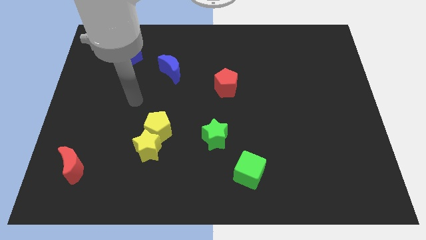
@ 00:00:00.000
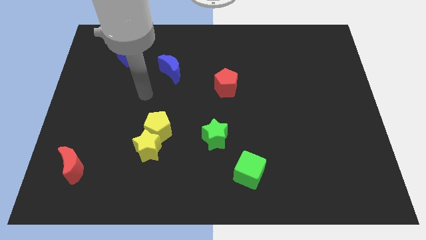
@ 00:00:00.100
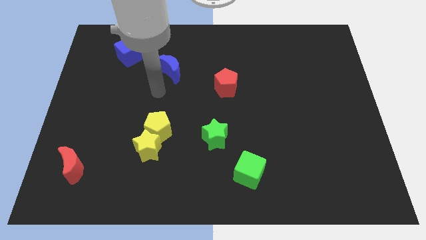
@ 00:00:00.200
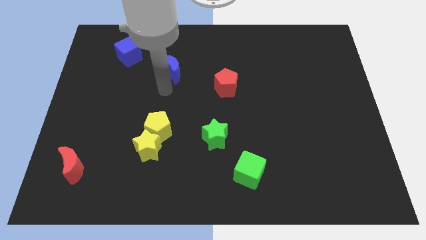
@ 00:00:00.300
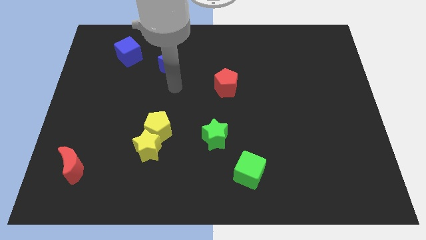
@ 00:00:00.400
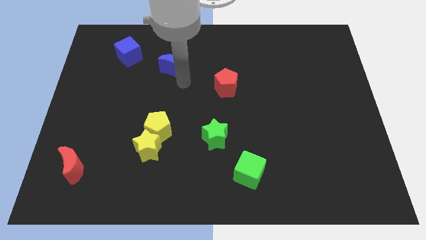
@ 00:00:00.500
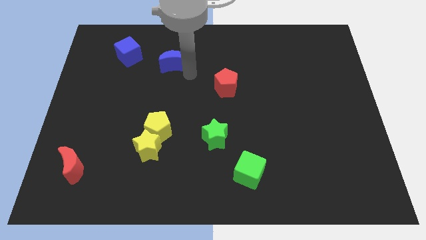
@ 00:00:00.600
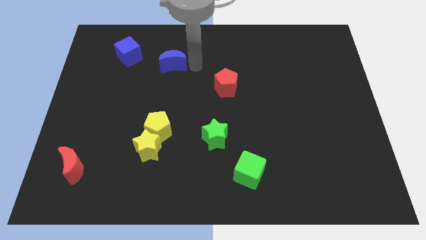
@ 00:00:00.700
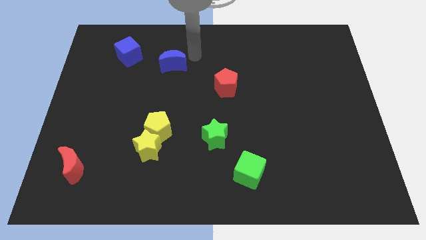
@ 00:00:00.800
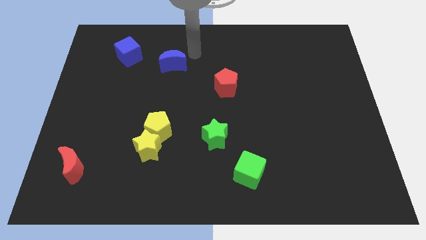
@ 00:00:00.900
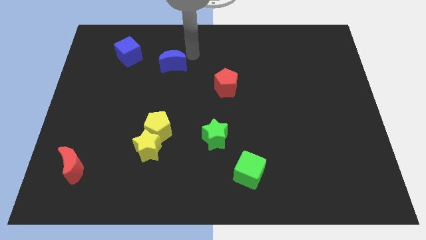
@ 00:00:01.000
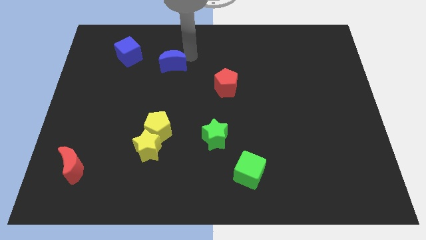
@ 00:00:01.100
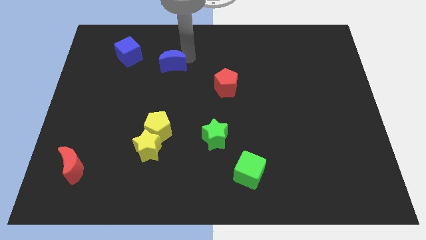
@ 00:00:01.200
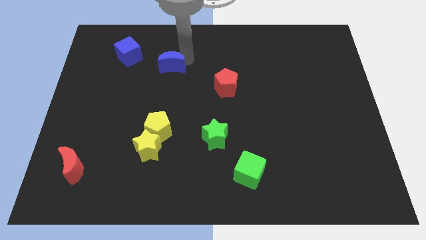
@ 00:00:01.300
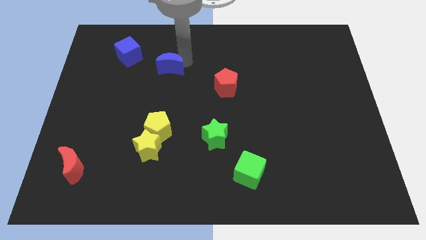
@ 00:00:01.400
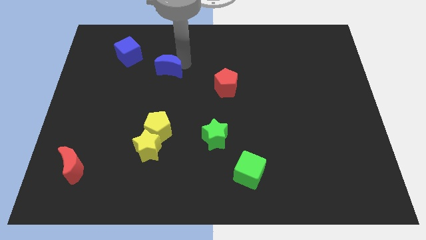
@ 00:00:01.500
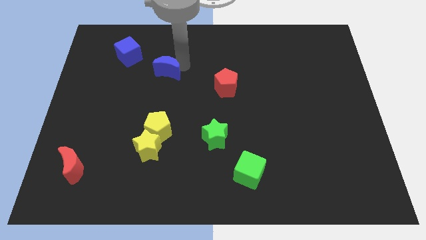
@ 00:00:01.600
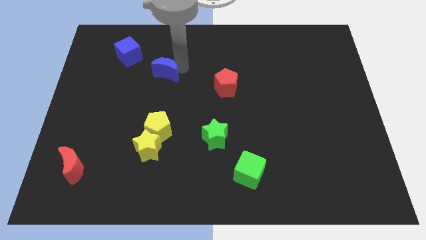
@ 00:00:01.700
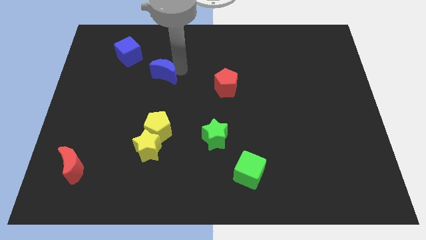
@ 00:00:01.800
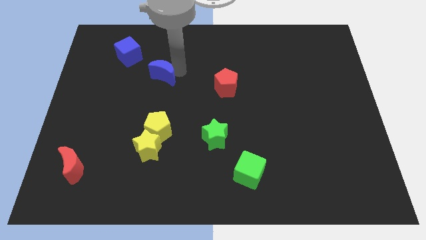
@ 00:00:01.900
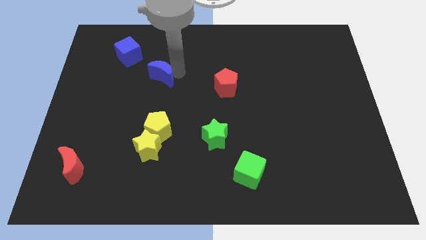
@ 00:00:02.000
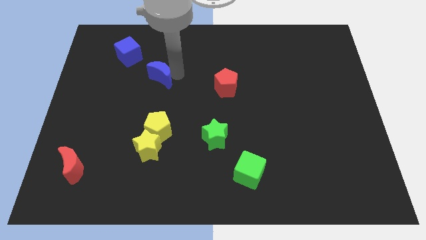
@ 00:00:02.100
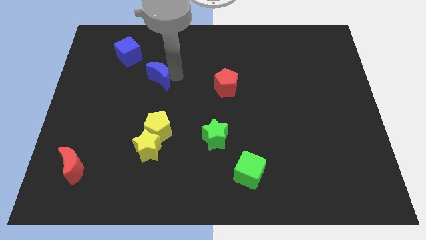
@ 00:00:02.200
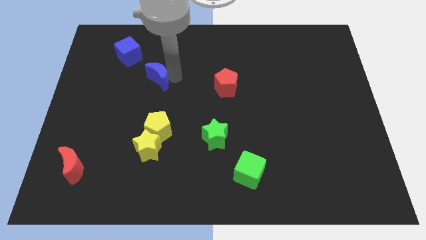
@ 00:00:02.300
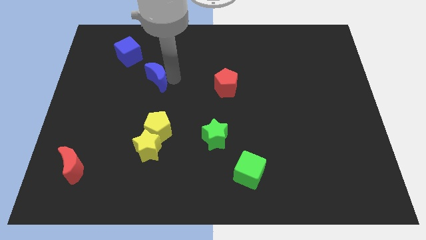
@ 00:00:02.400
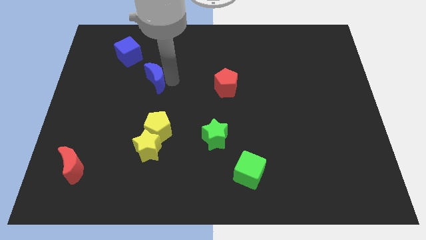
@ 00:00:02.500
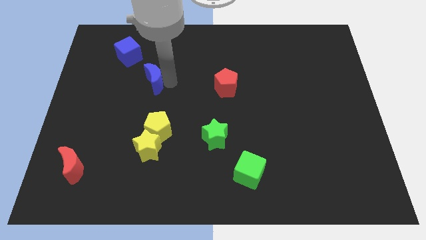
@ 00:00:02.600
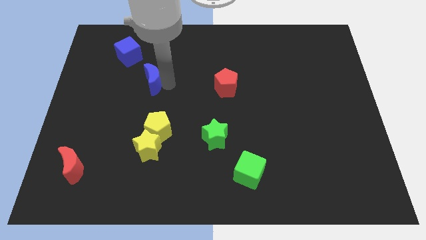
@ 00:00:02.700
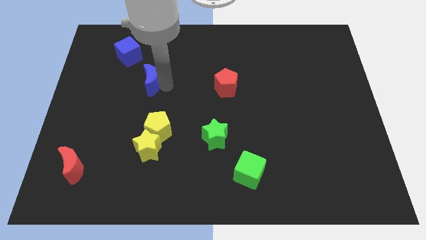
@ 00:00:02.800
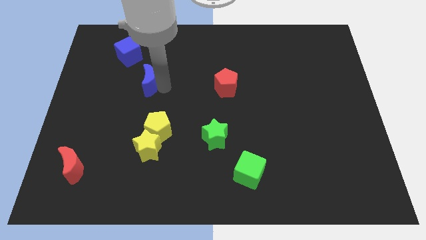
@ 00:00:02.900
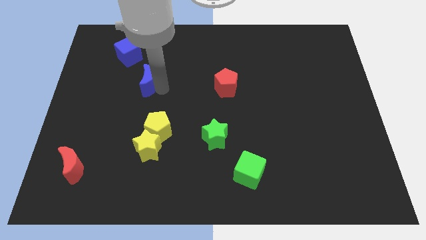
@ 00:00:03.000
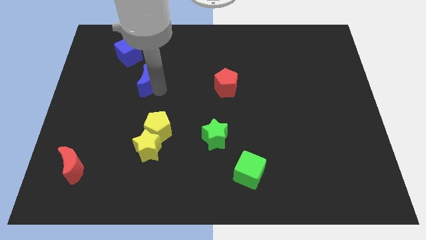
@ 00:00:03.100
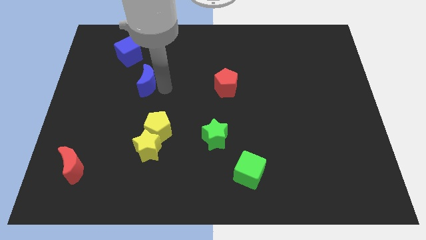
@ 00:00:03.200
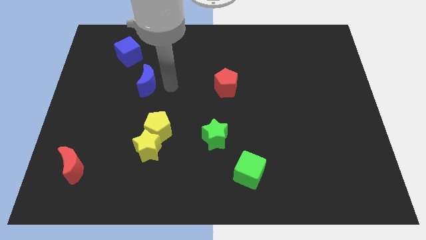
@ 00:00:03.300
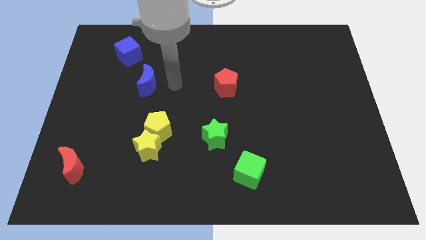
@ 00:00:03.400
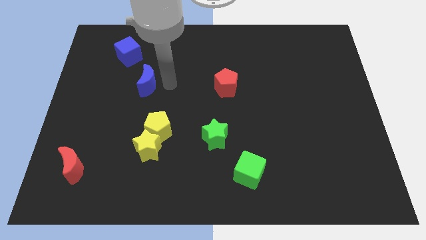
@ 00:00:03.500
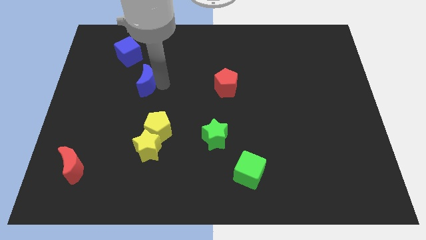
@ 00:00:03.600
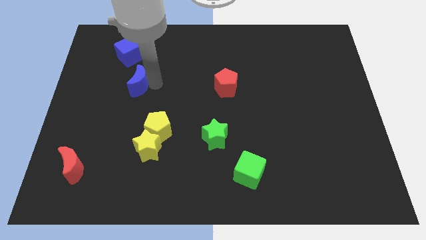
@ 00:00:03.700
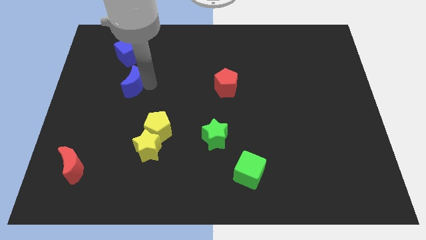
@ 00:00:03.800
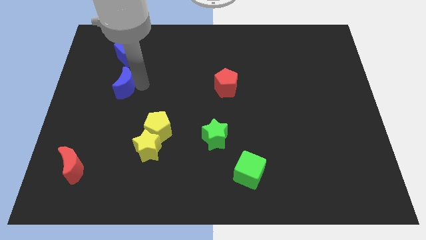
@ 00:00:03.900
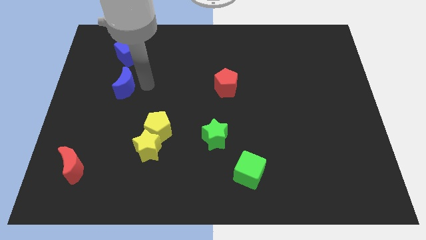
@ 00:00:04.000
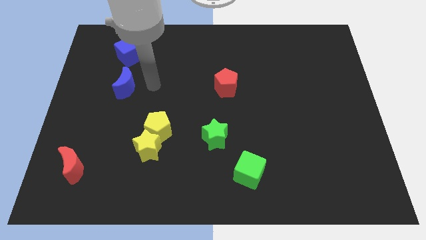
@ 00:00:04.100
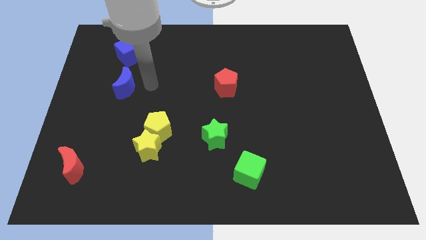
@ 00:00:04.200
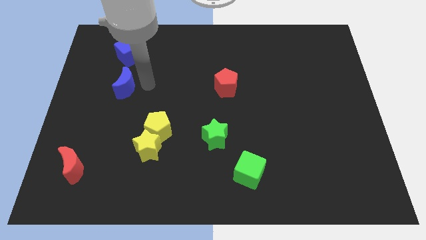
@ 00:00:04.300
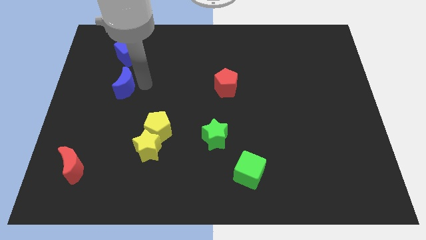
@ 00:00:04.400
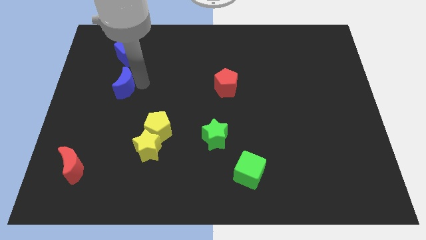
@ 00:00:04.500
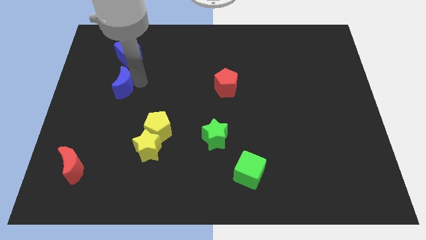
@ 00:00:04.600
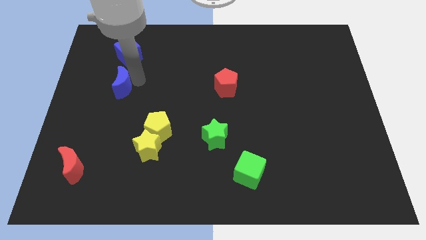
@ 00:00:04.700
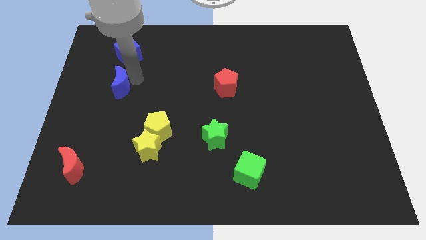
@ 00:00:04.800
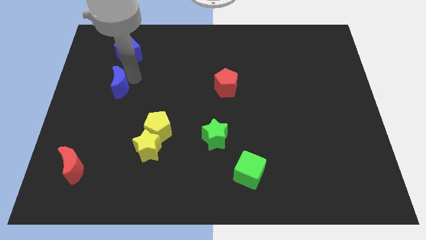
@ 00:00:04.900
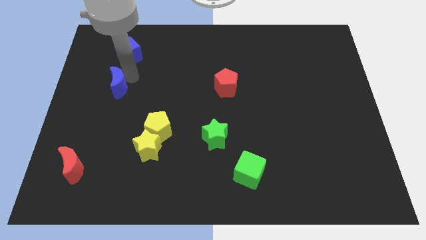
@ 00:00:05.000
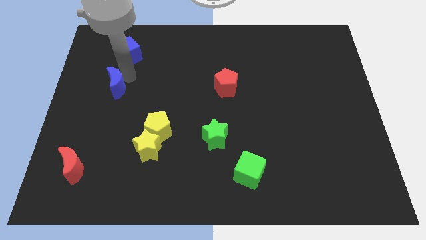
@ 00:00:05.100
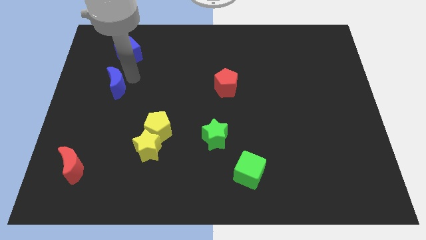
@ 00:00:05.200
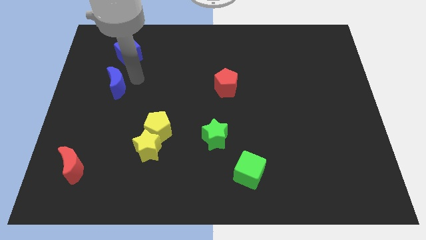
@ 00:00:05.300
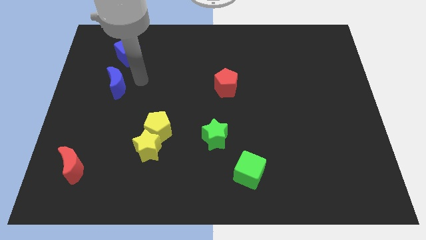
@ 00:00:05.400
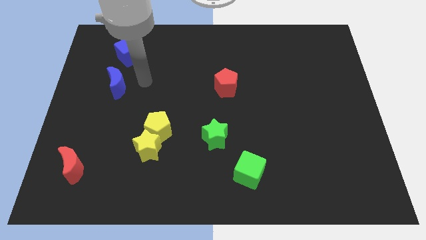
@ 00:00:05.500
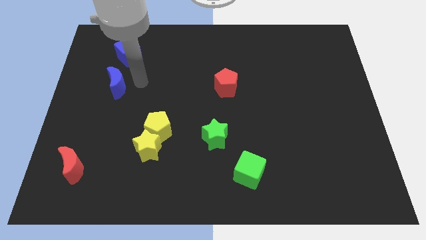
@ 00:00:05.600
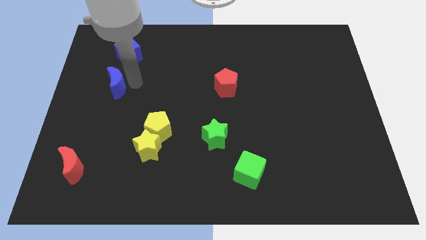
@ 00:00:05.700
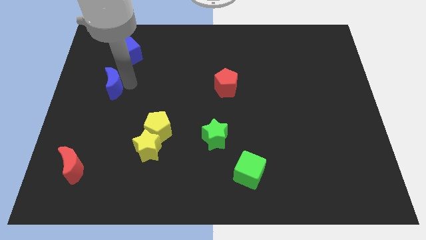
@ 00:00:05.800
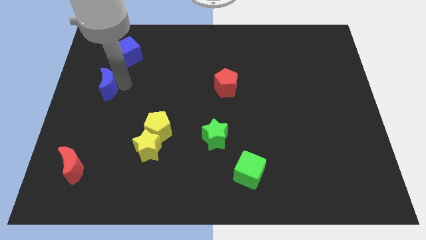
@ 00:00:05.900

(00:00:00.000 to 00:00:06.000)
put the blue moon to the center left

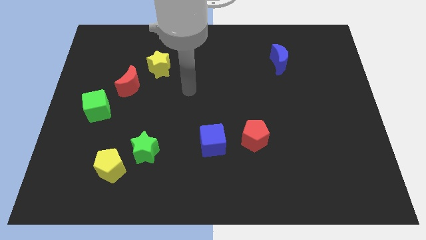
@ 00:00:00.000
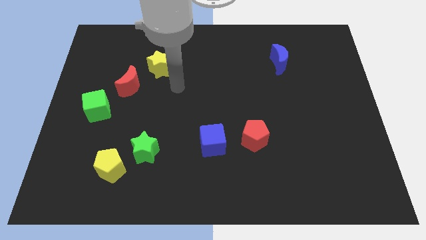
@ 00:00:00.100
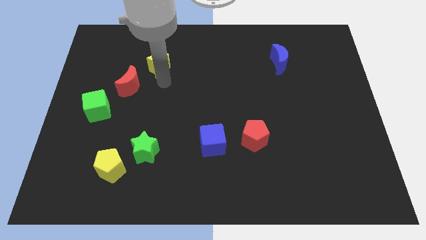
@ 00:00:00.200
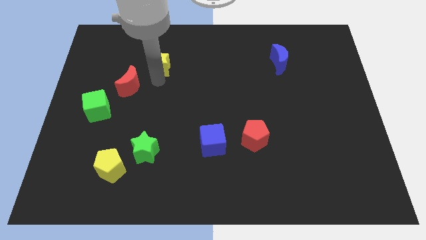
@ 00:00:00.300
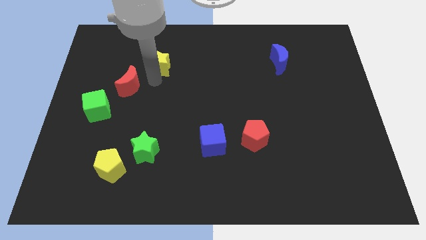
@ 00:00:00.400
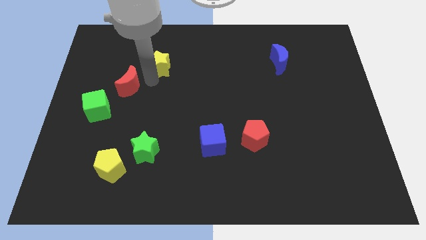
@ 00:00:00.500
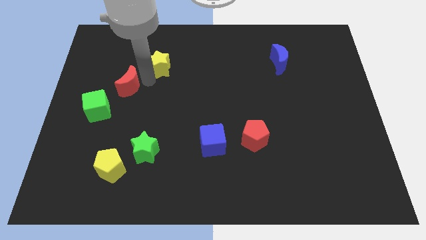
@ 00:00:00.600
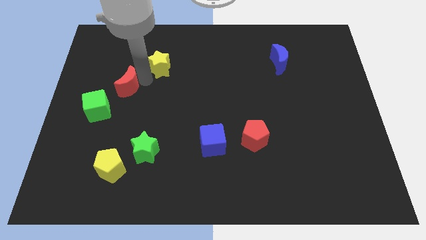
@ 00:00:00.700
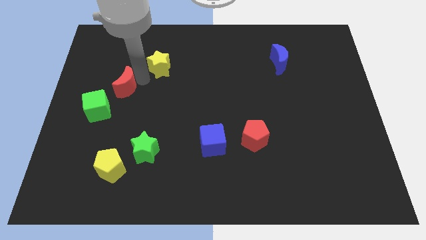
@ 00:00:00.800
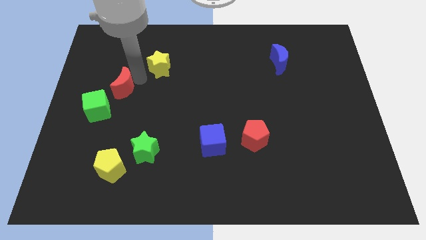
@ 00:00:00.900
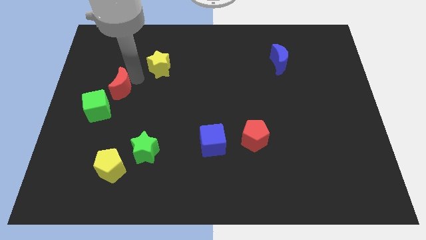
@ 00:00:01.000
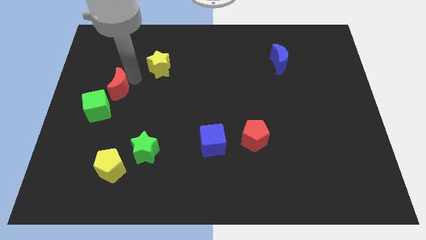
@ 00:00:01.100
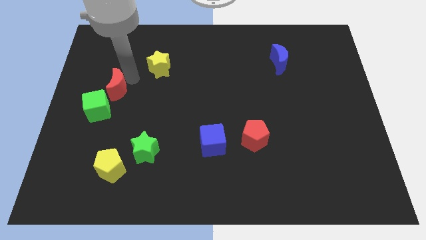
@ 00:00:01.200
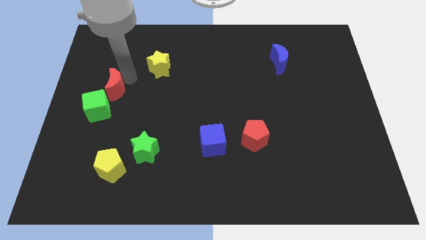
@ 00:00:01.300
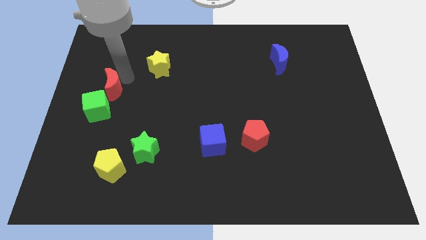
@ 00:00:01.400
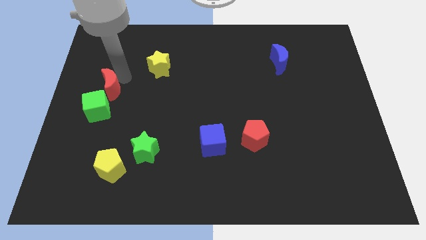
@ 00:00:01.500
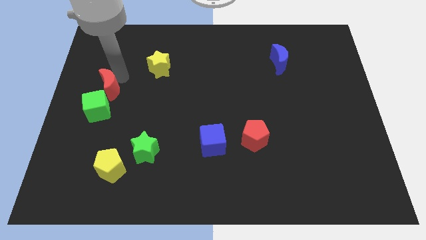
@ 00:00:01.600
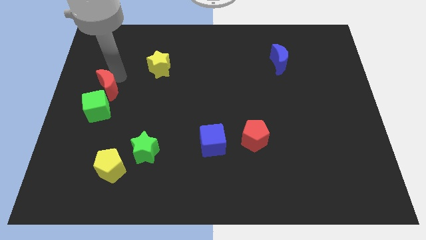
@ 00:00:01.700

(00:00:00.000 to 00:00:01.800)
push the red moon to the center left
